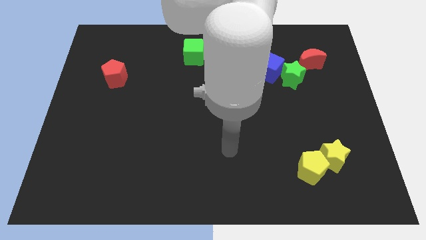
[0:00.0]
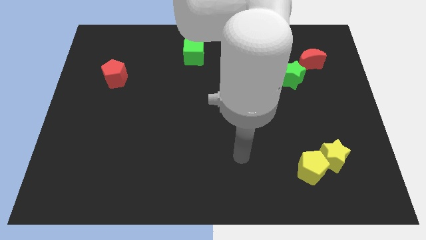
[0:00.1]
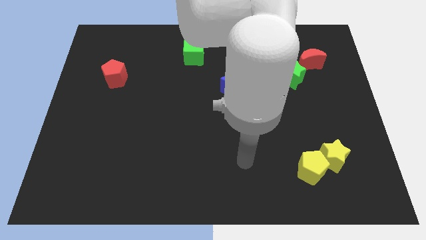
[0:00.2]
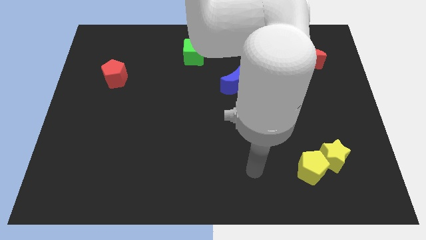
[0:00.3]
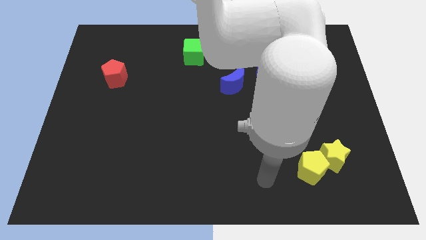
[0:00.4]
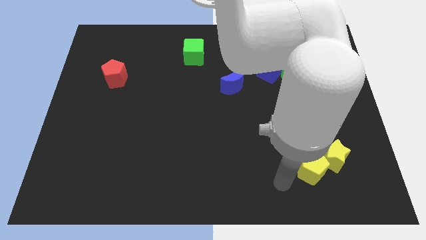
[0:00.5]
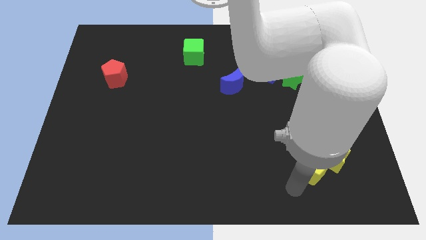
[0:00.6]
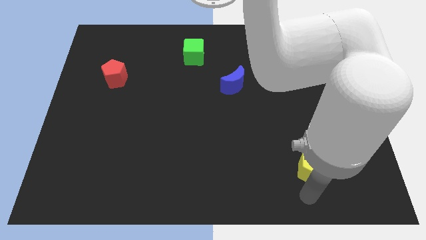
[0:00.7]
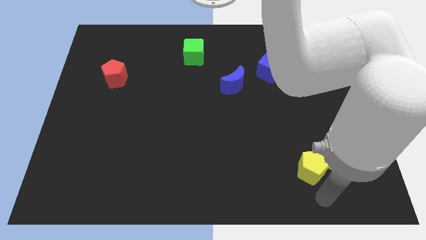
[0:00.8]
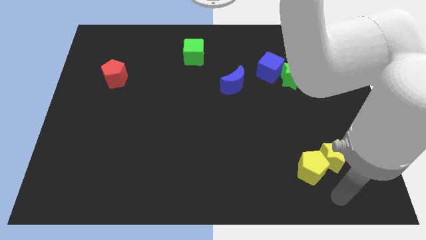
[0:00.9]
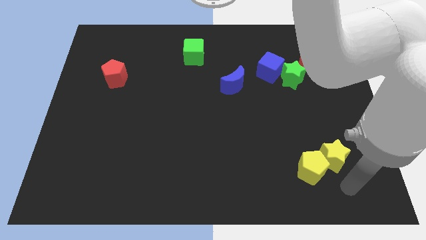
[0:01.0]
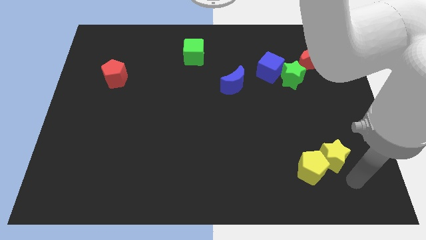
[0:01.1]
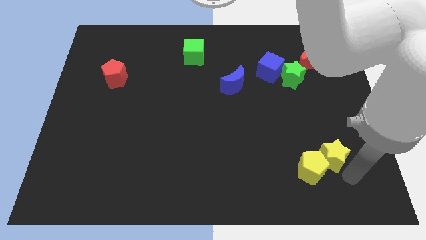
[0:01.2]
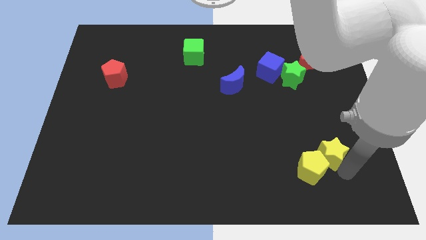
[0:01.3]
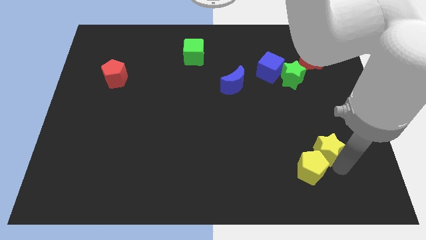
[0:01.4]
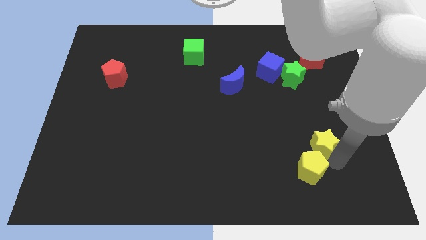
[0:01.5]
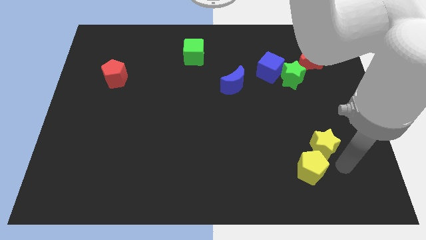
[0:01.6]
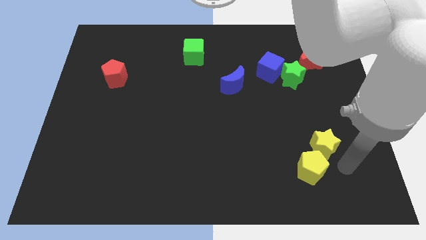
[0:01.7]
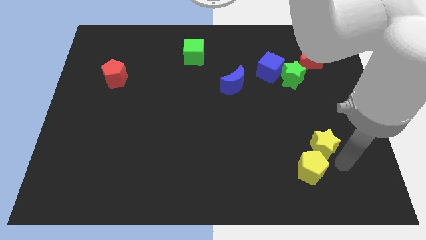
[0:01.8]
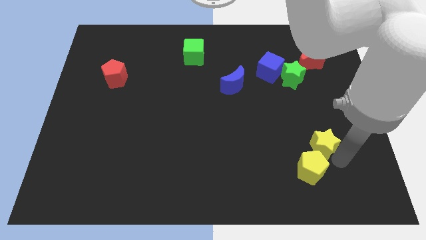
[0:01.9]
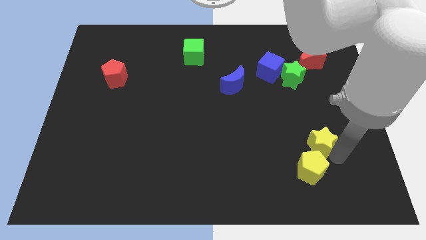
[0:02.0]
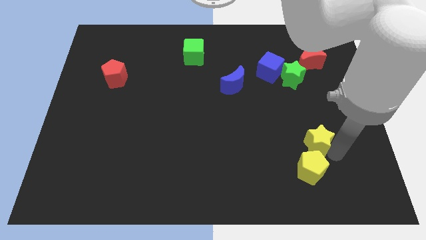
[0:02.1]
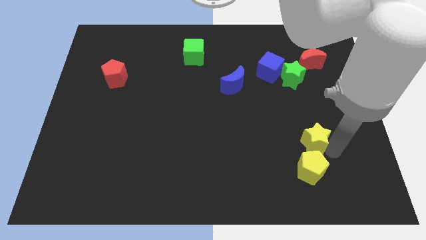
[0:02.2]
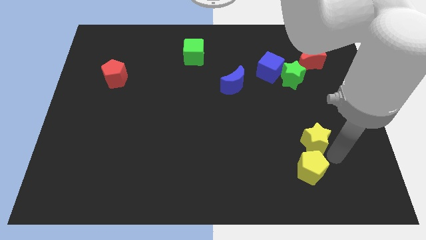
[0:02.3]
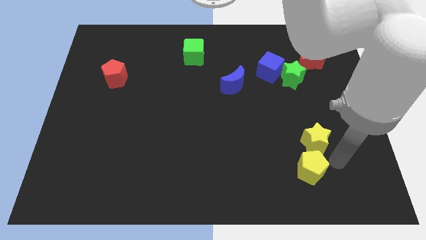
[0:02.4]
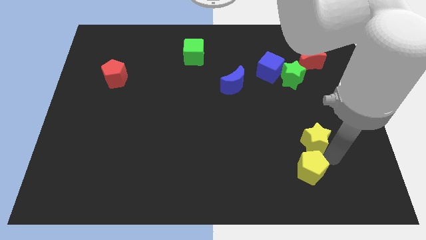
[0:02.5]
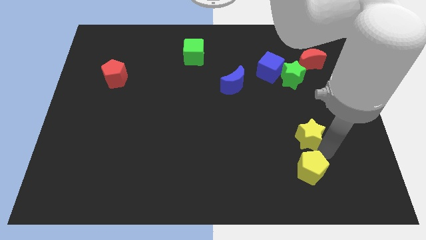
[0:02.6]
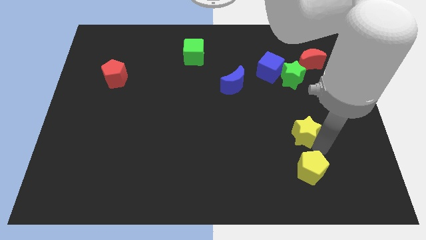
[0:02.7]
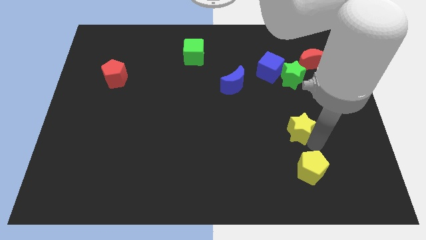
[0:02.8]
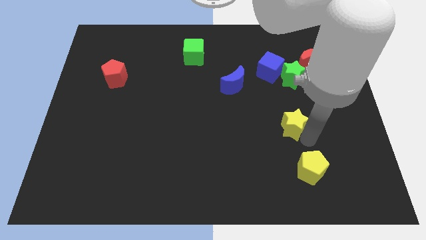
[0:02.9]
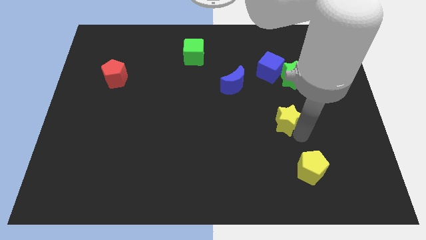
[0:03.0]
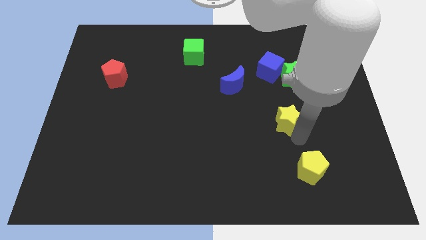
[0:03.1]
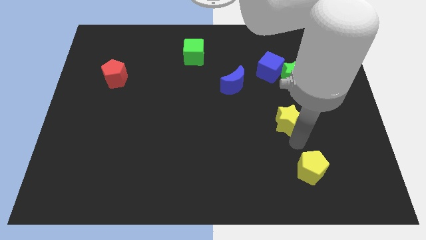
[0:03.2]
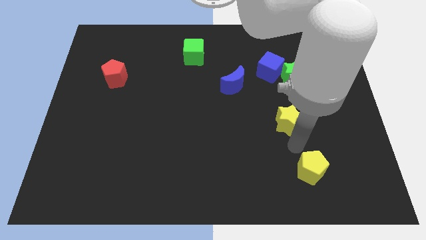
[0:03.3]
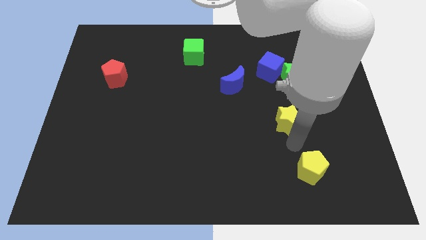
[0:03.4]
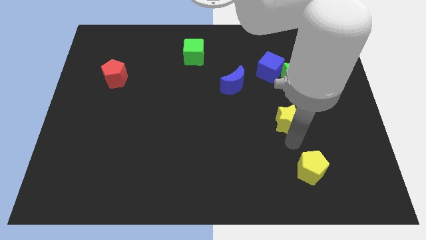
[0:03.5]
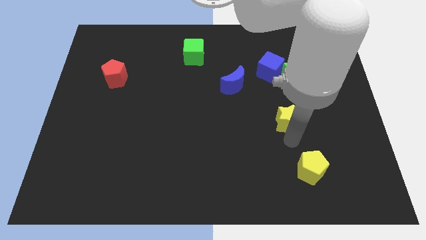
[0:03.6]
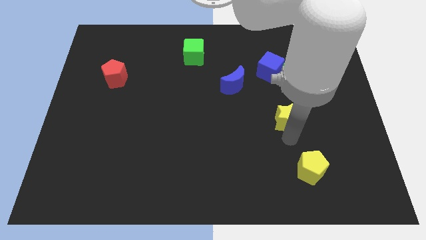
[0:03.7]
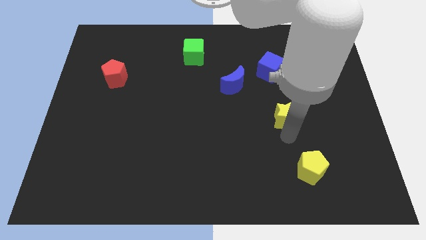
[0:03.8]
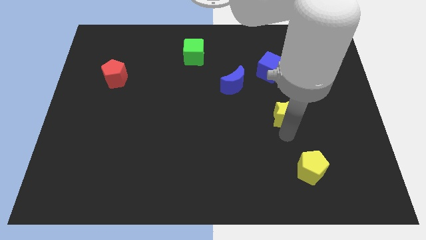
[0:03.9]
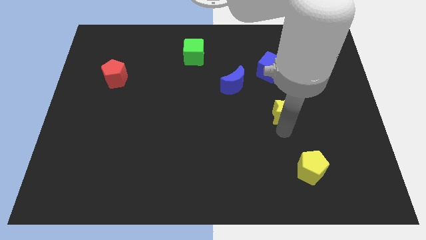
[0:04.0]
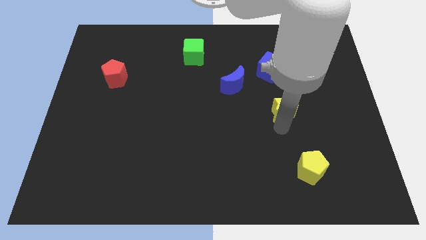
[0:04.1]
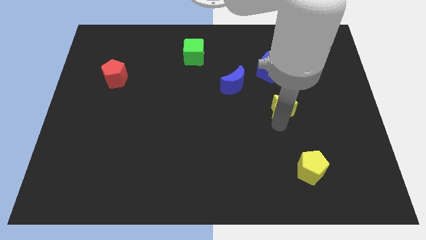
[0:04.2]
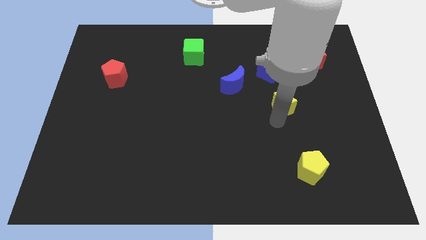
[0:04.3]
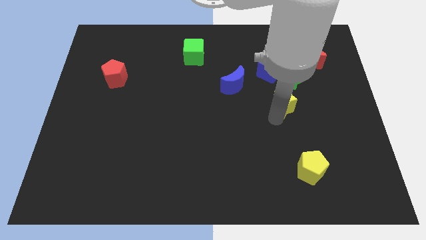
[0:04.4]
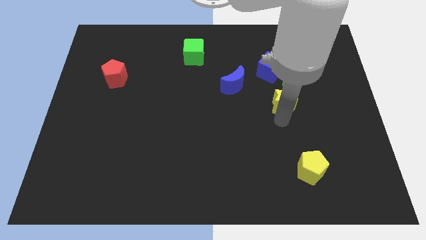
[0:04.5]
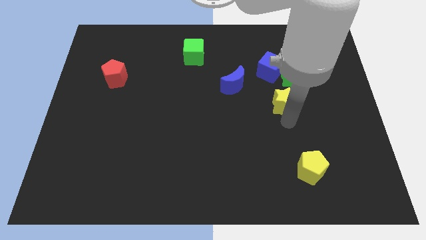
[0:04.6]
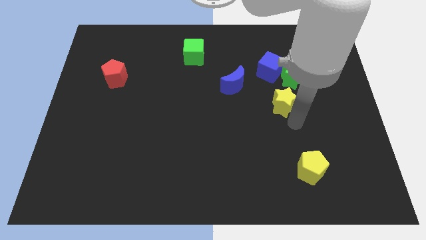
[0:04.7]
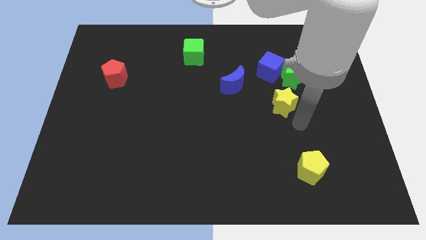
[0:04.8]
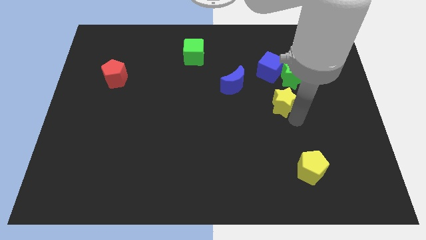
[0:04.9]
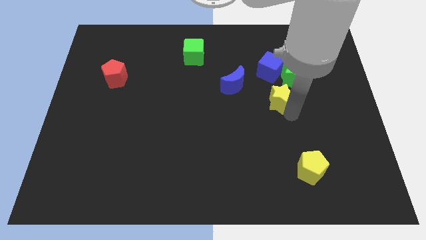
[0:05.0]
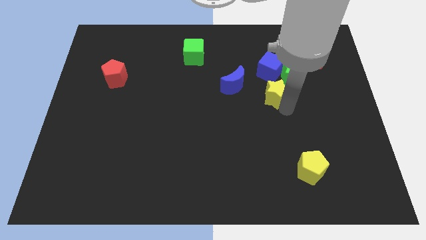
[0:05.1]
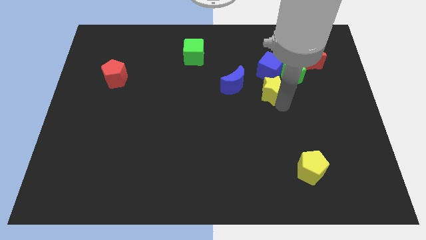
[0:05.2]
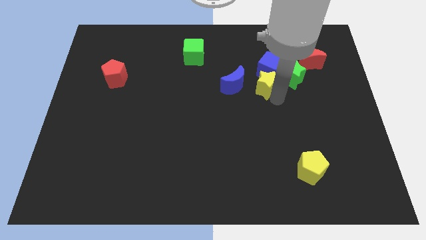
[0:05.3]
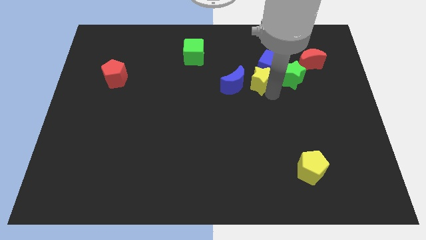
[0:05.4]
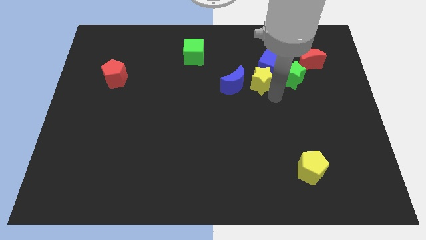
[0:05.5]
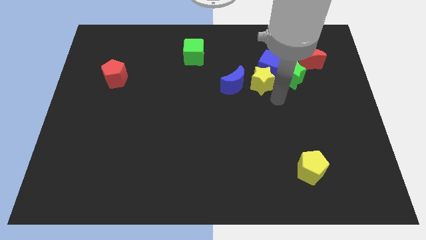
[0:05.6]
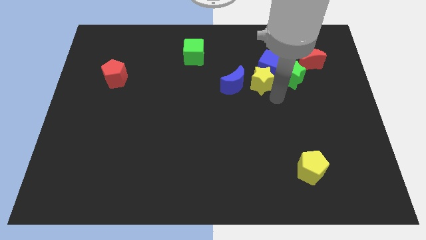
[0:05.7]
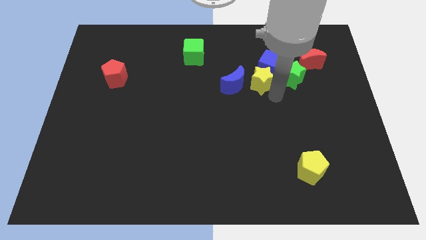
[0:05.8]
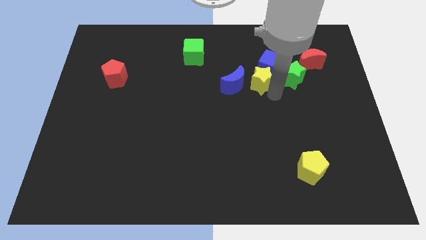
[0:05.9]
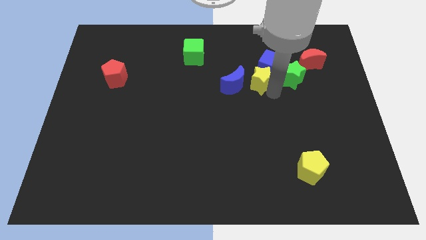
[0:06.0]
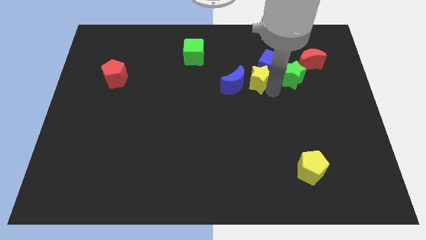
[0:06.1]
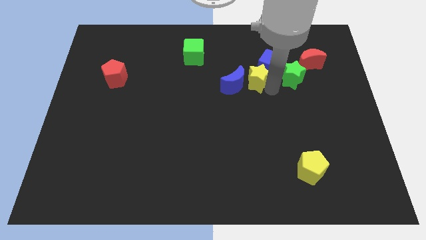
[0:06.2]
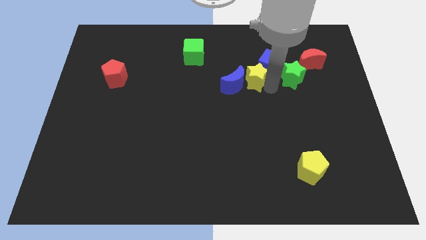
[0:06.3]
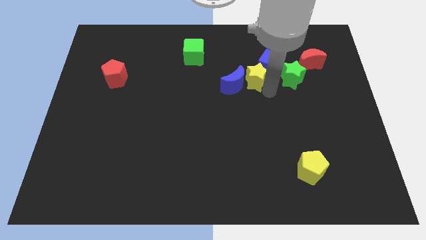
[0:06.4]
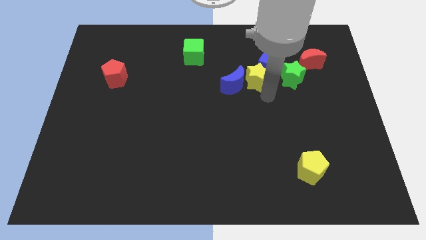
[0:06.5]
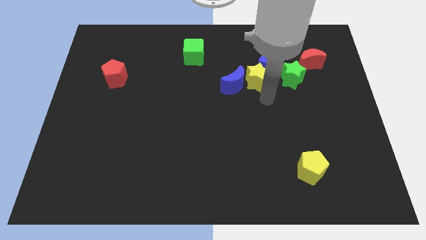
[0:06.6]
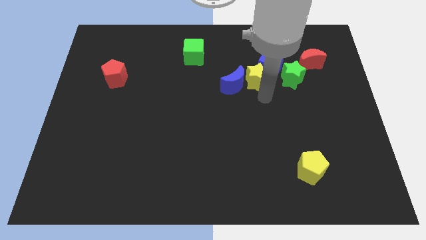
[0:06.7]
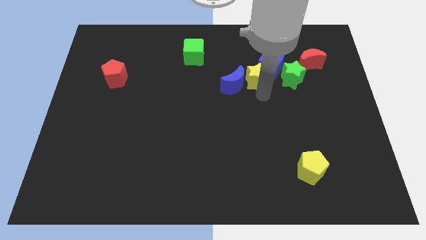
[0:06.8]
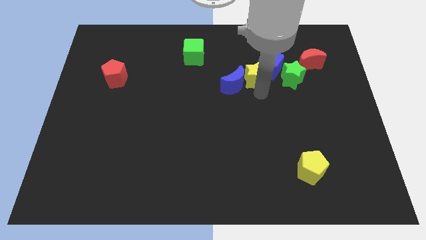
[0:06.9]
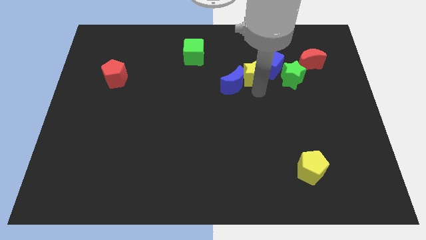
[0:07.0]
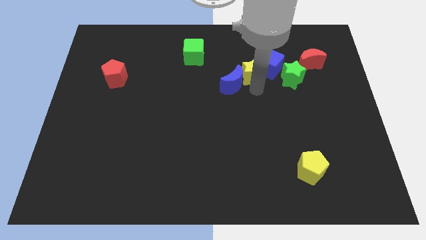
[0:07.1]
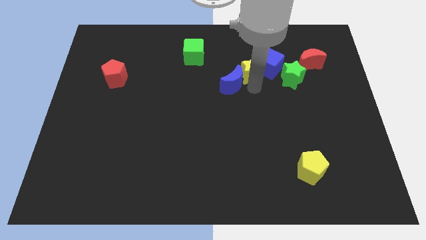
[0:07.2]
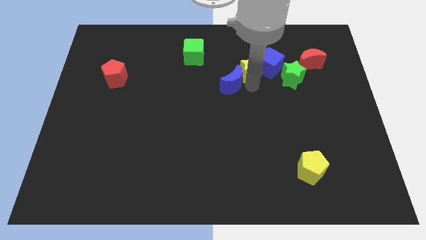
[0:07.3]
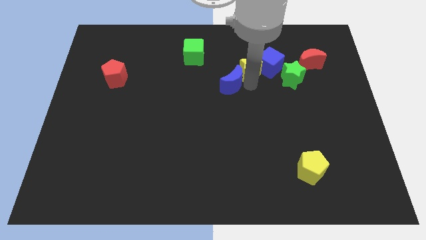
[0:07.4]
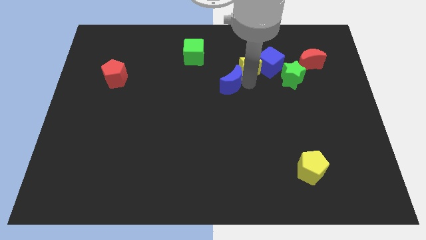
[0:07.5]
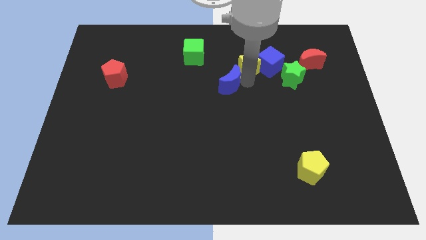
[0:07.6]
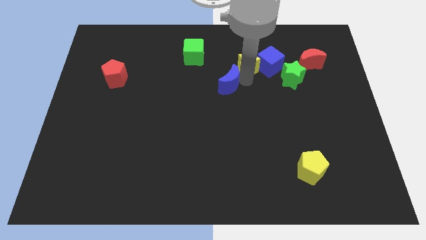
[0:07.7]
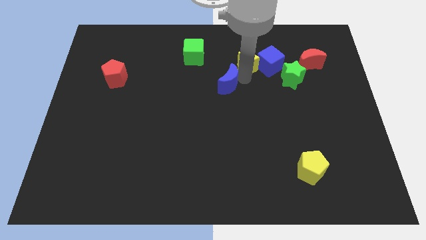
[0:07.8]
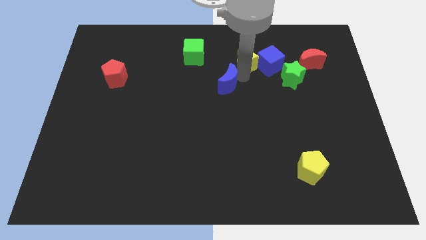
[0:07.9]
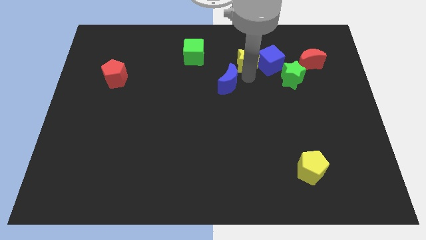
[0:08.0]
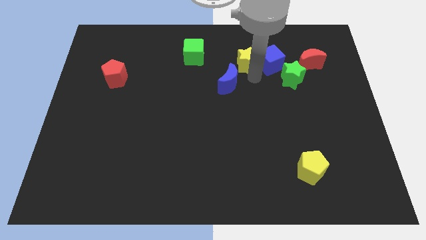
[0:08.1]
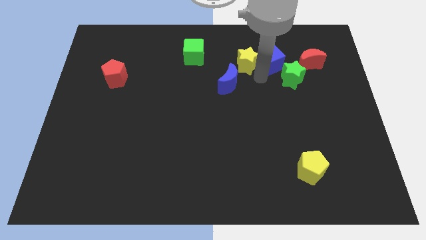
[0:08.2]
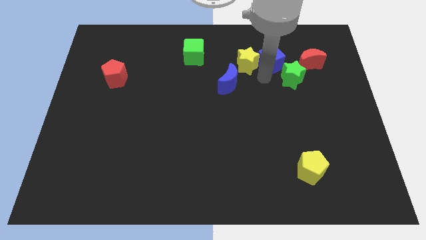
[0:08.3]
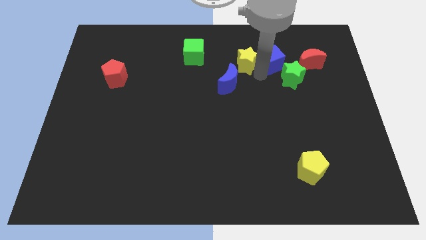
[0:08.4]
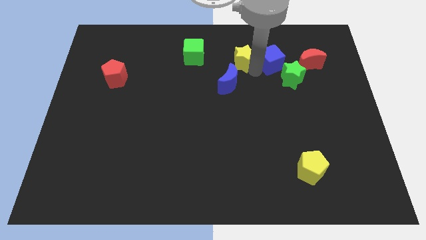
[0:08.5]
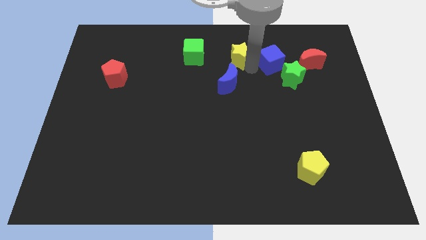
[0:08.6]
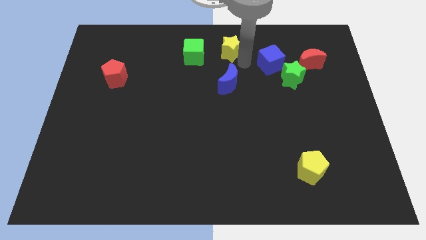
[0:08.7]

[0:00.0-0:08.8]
slide the yellow star to the top
